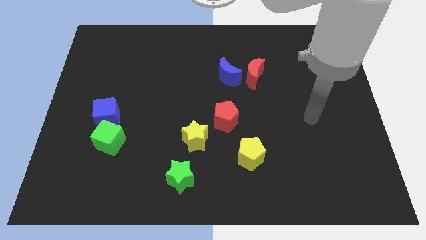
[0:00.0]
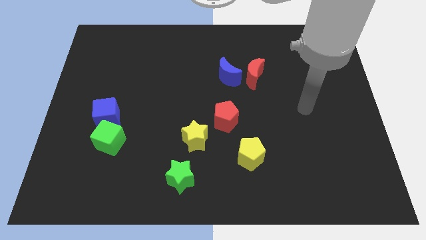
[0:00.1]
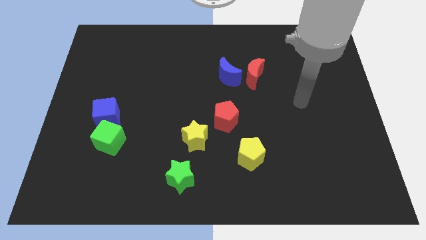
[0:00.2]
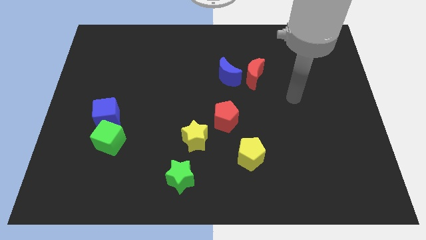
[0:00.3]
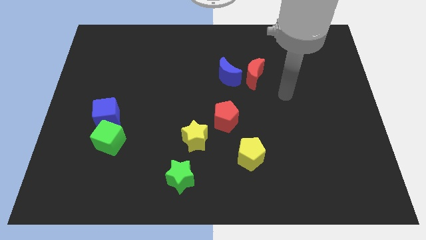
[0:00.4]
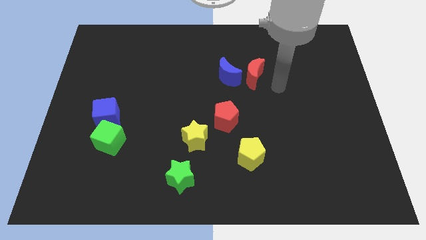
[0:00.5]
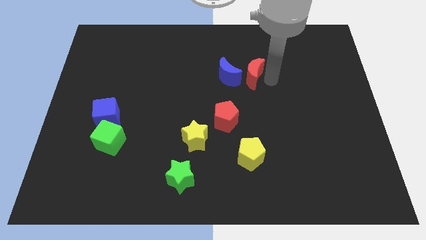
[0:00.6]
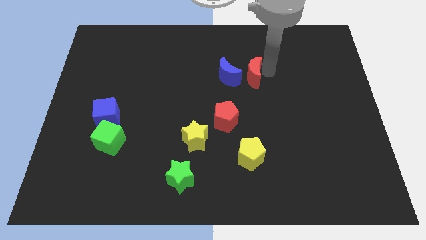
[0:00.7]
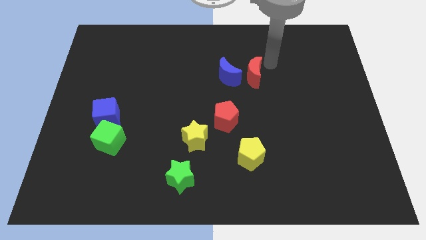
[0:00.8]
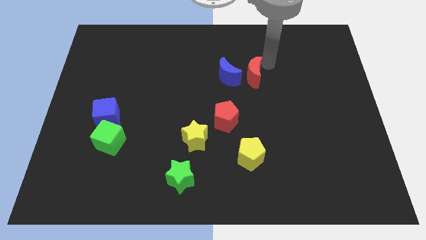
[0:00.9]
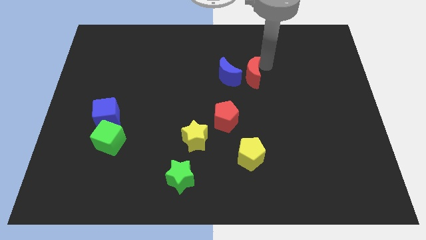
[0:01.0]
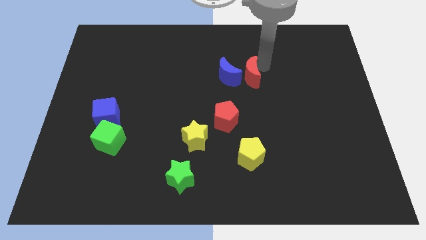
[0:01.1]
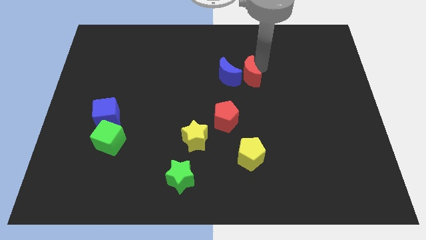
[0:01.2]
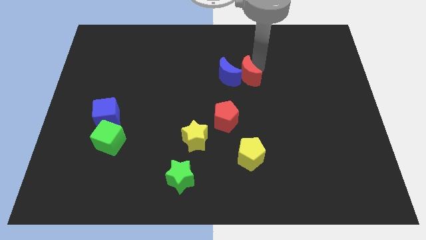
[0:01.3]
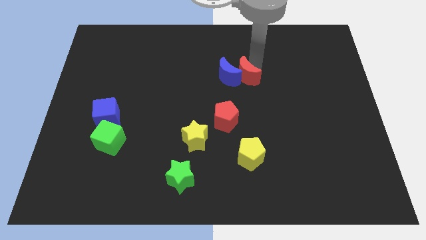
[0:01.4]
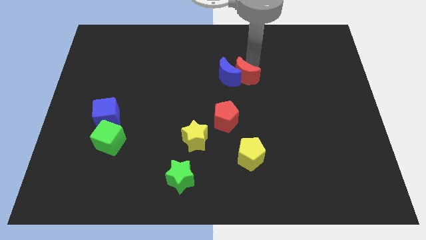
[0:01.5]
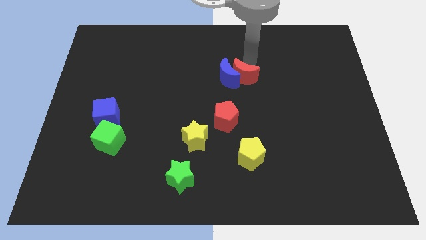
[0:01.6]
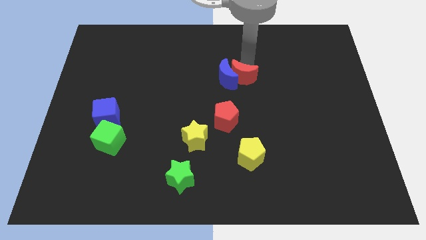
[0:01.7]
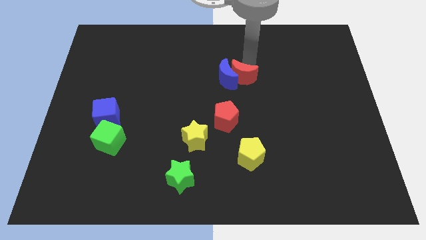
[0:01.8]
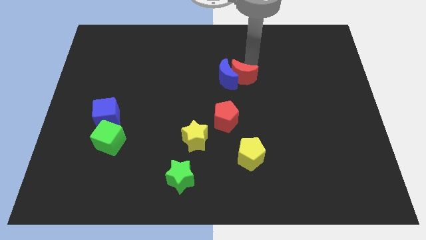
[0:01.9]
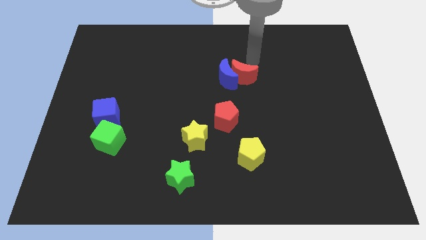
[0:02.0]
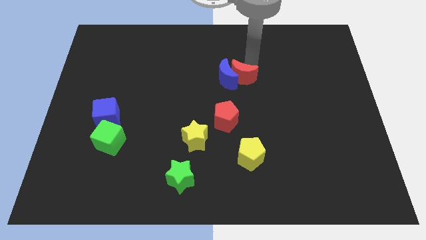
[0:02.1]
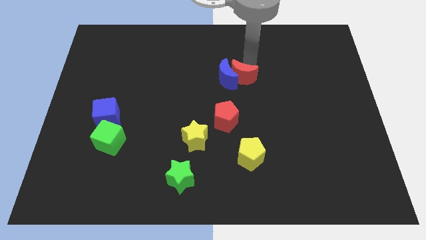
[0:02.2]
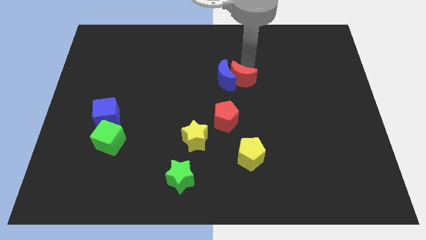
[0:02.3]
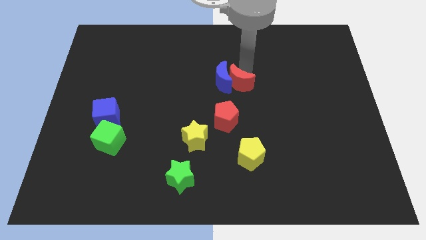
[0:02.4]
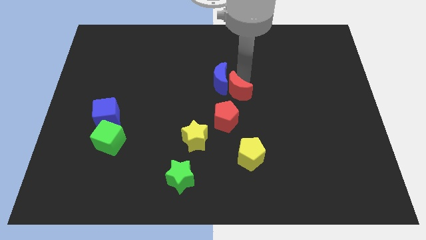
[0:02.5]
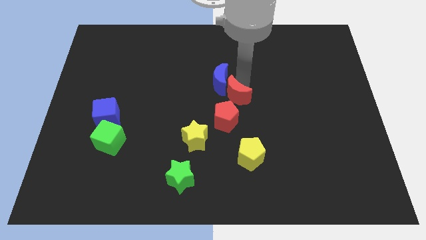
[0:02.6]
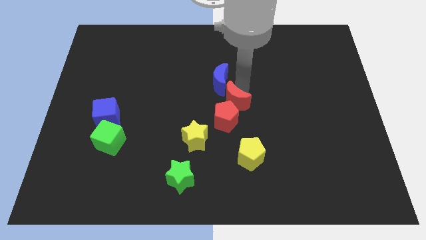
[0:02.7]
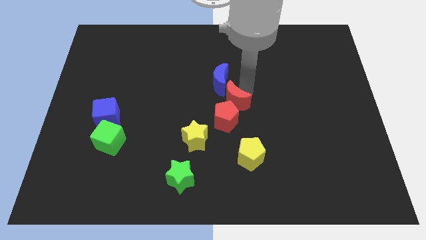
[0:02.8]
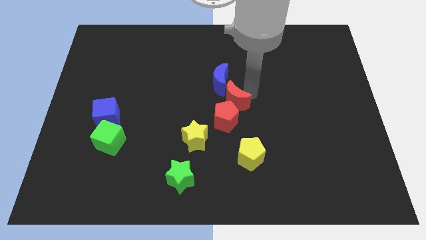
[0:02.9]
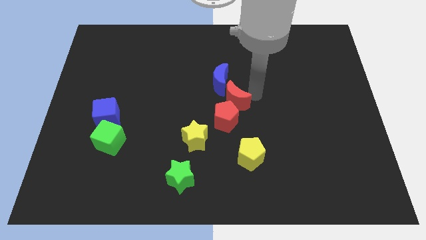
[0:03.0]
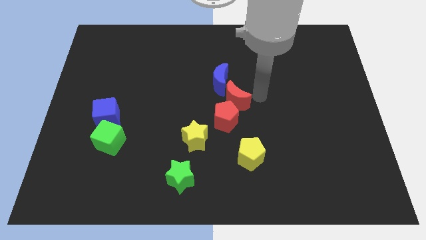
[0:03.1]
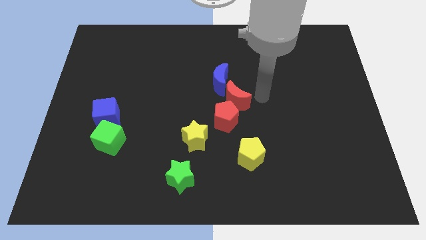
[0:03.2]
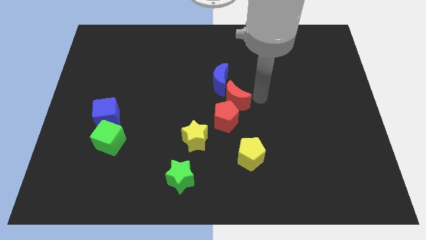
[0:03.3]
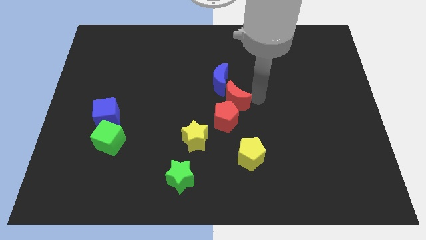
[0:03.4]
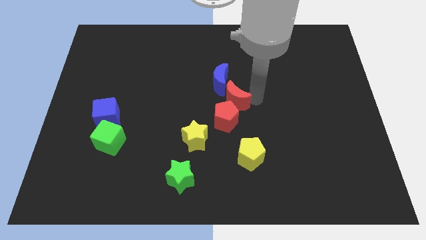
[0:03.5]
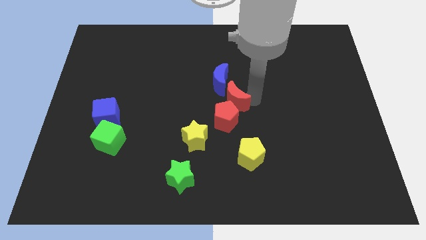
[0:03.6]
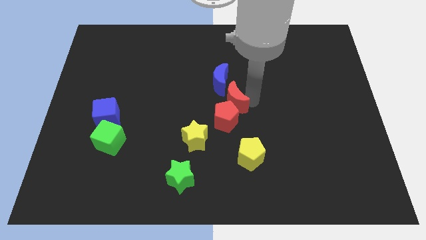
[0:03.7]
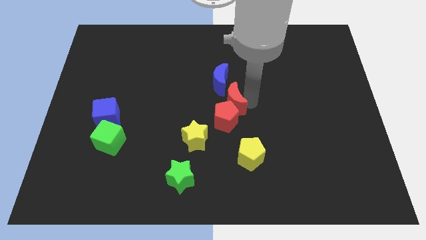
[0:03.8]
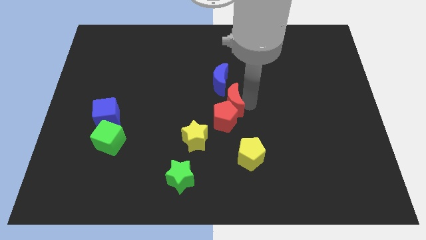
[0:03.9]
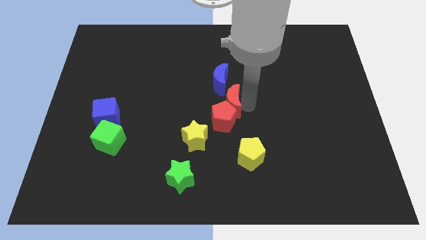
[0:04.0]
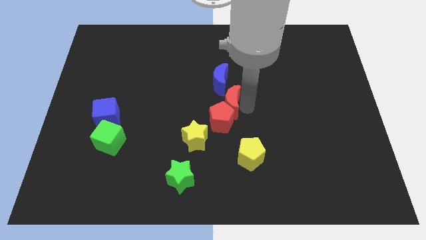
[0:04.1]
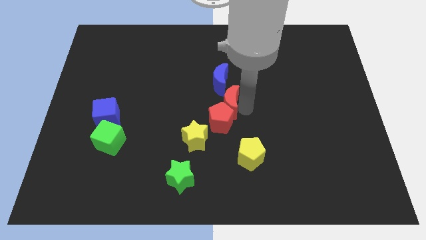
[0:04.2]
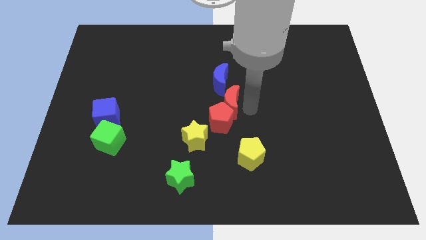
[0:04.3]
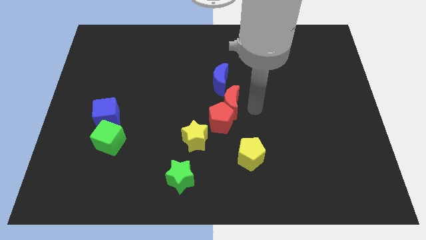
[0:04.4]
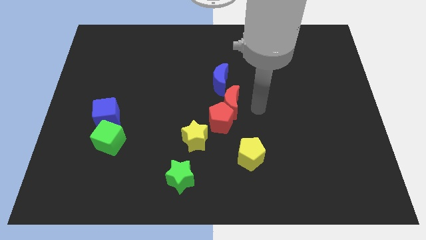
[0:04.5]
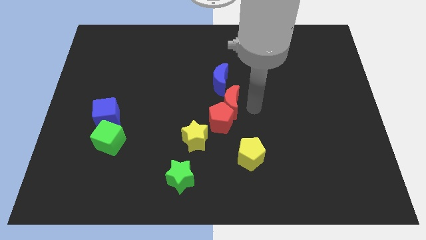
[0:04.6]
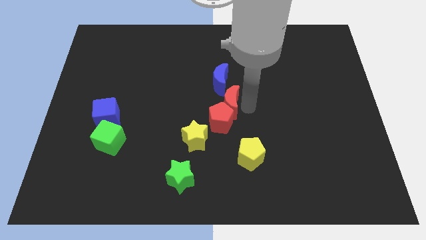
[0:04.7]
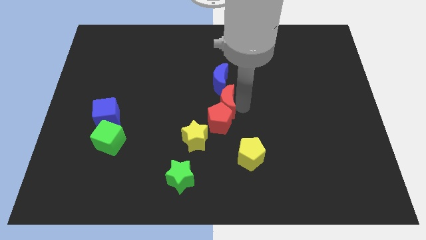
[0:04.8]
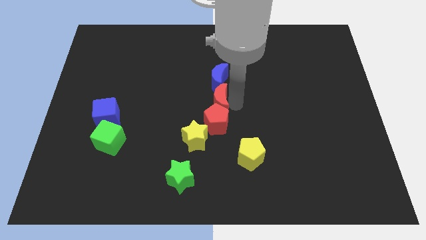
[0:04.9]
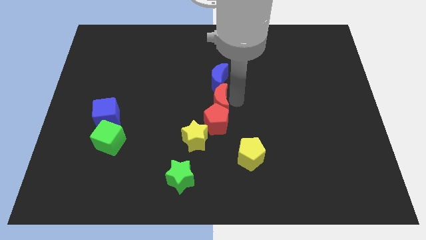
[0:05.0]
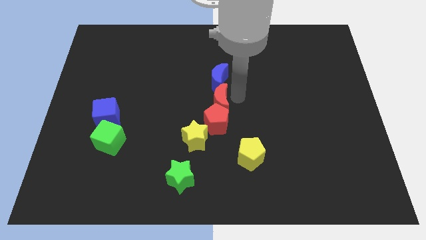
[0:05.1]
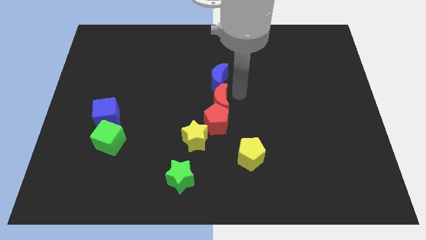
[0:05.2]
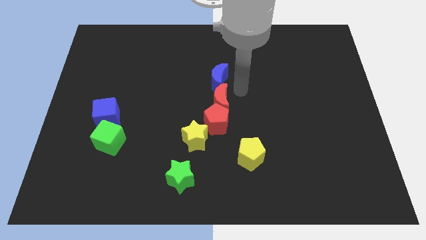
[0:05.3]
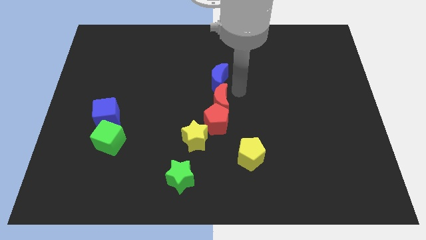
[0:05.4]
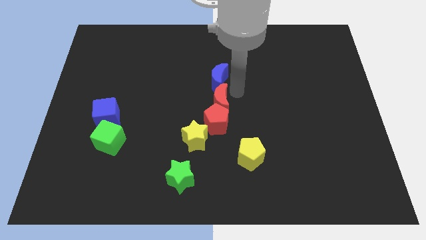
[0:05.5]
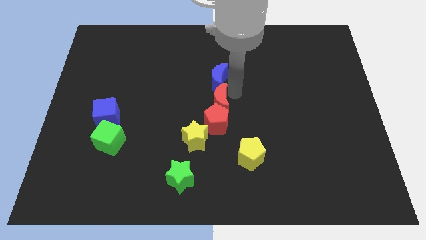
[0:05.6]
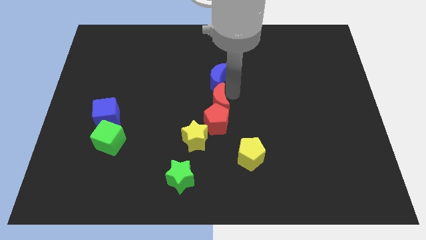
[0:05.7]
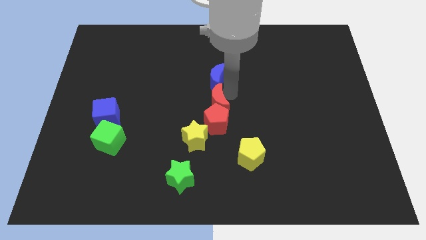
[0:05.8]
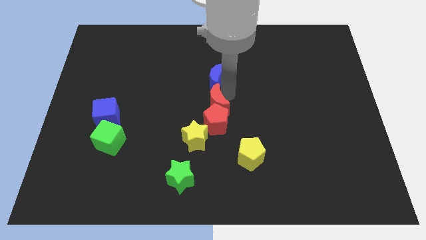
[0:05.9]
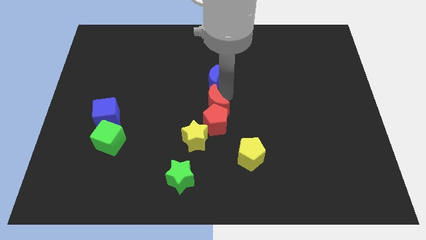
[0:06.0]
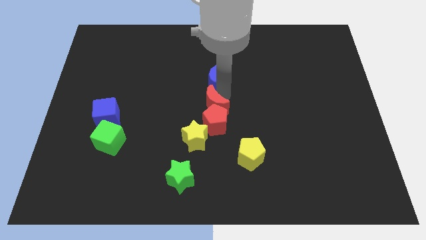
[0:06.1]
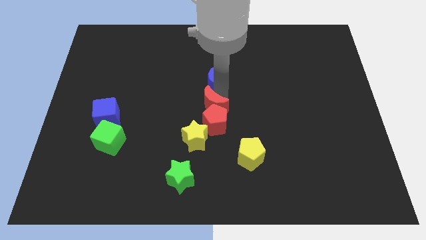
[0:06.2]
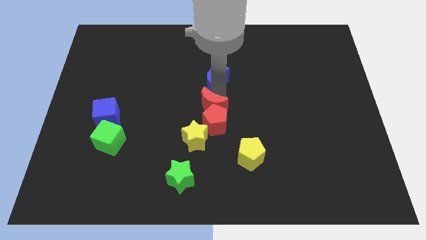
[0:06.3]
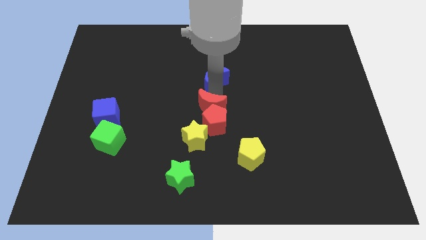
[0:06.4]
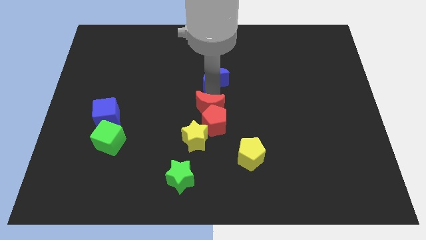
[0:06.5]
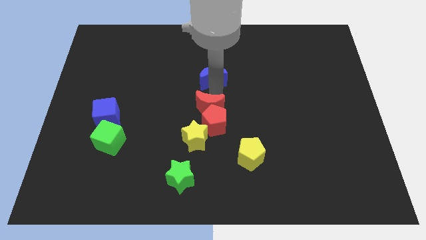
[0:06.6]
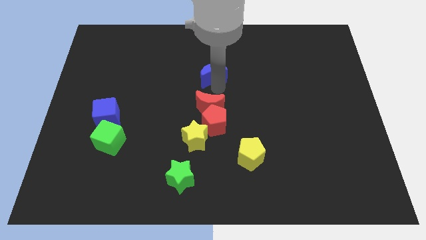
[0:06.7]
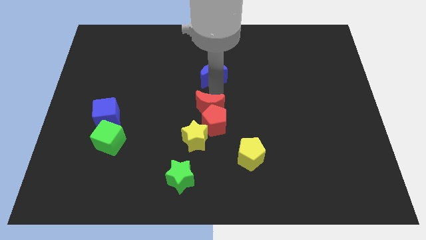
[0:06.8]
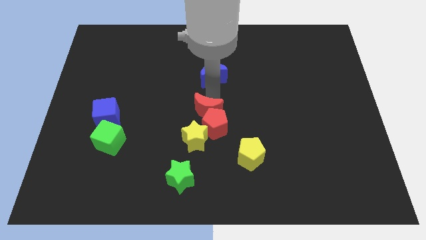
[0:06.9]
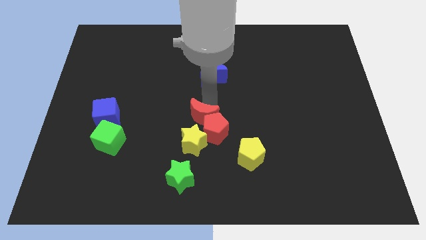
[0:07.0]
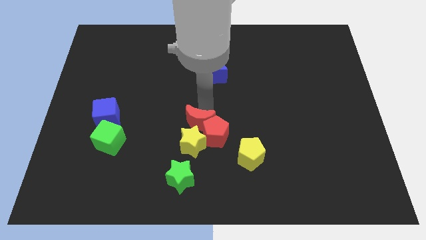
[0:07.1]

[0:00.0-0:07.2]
push the red moon towards the yellow star

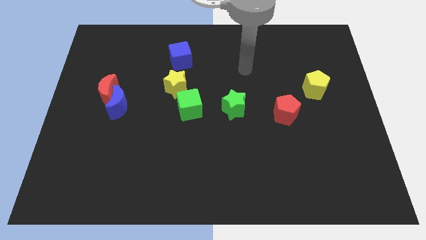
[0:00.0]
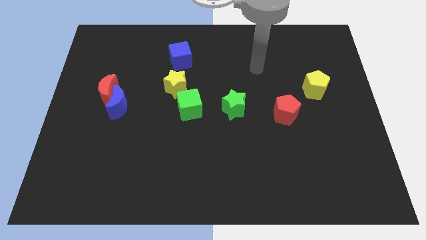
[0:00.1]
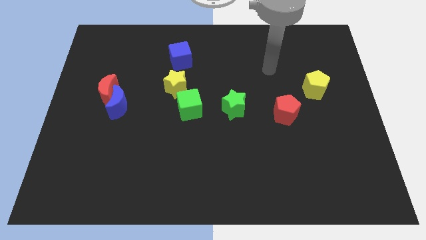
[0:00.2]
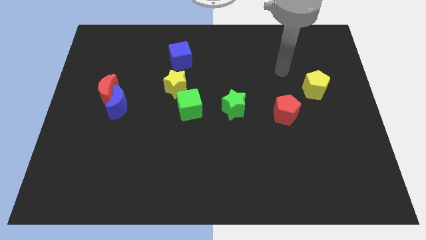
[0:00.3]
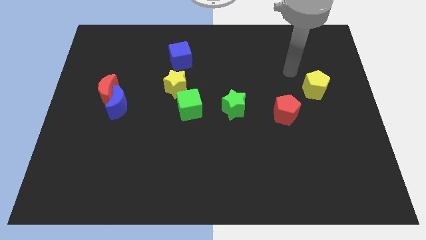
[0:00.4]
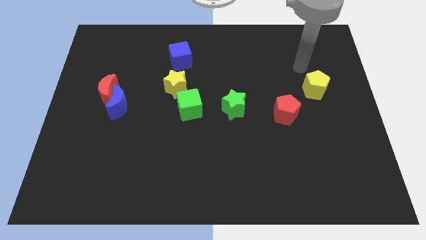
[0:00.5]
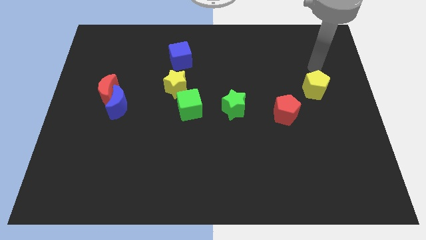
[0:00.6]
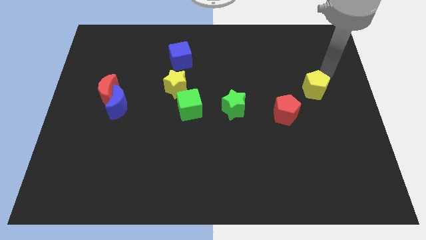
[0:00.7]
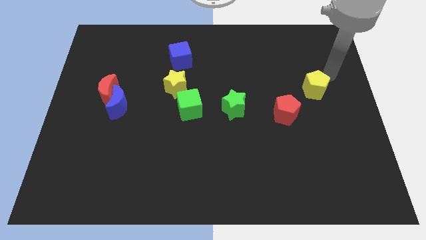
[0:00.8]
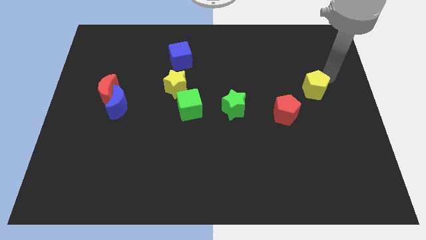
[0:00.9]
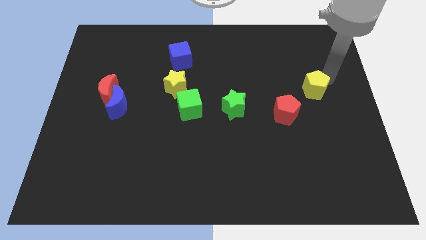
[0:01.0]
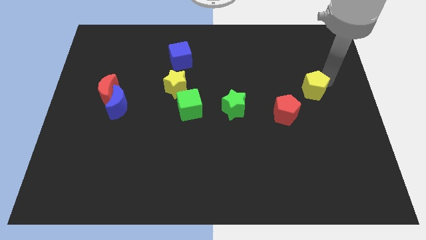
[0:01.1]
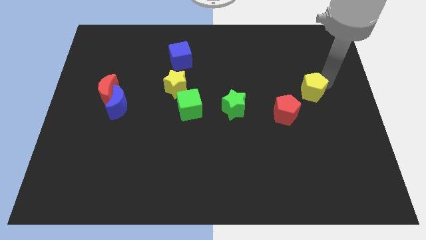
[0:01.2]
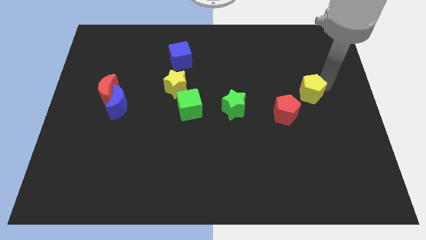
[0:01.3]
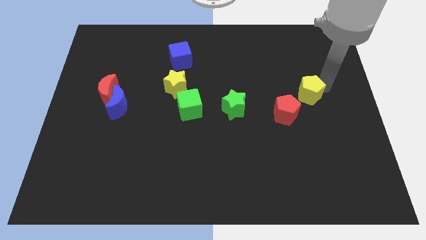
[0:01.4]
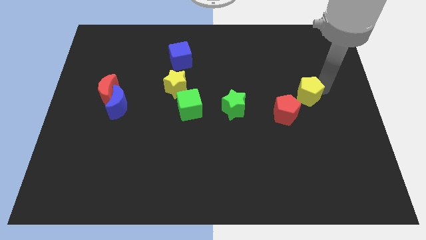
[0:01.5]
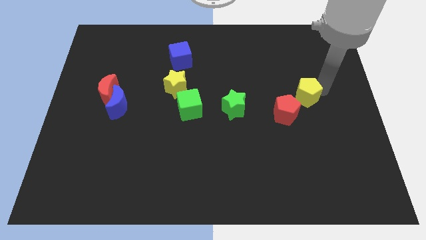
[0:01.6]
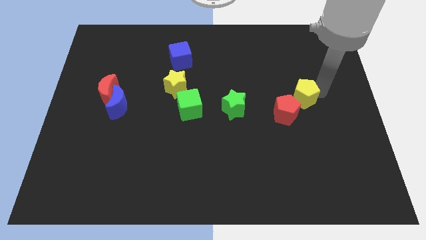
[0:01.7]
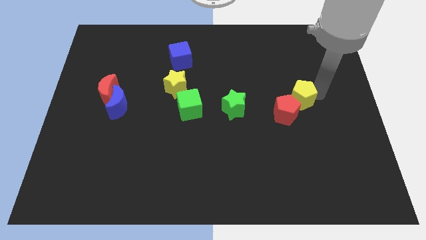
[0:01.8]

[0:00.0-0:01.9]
slide the yellow pentagon to the red pentagon
